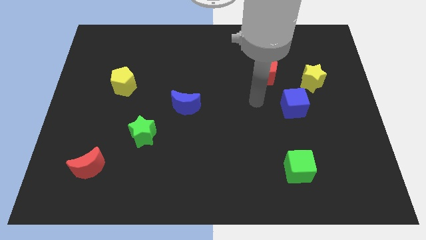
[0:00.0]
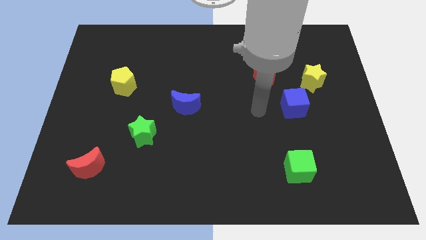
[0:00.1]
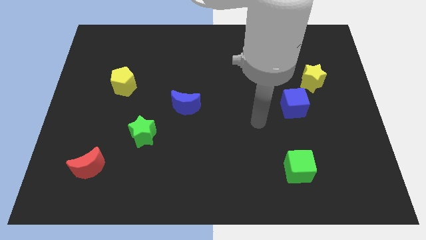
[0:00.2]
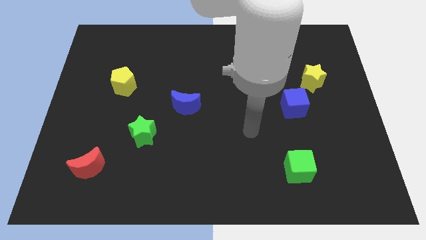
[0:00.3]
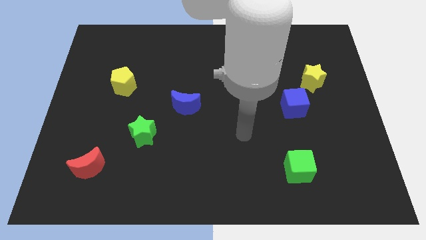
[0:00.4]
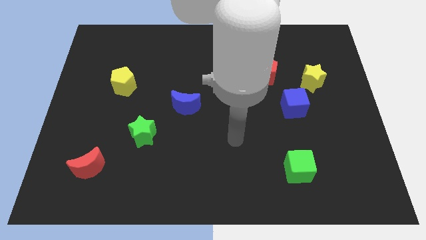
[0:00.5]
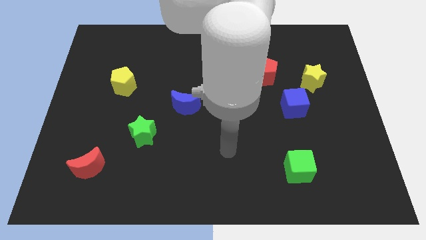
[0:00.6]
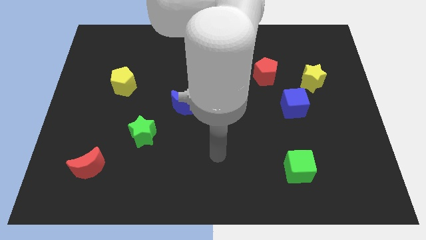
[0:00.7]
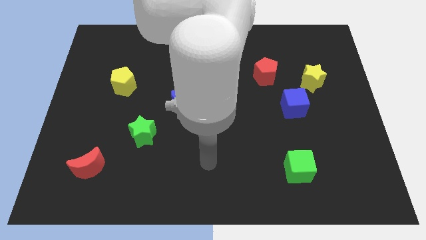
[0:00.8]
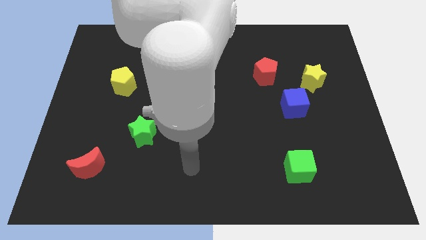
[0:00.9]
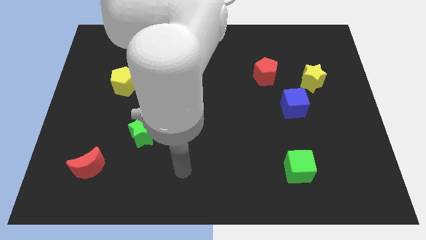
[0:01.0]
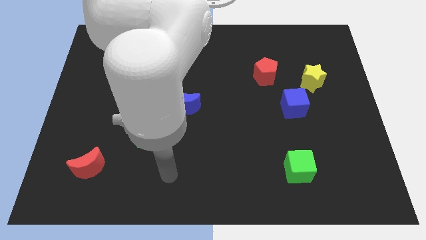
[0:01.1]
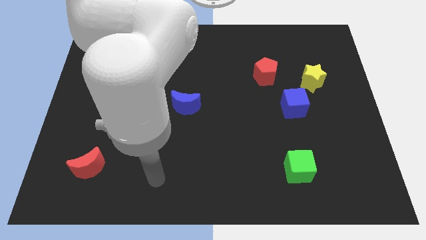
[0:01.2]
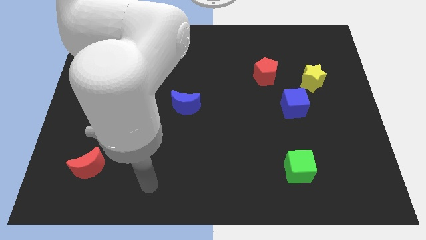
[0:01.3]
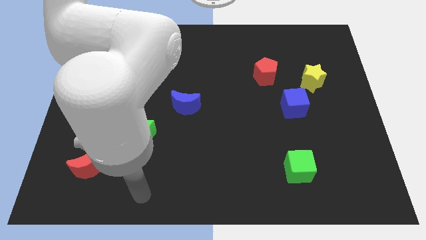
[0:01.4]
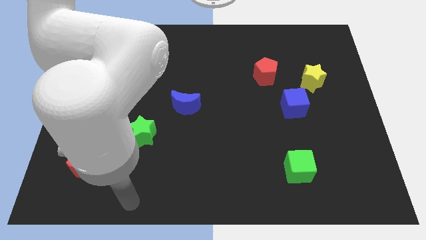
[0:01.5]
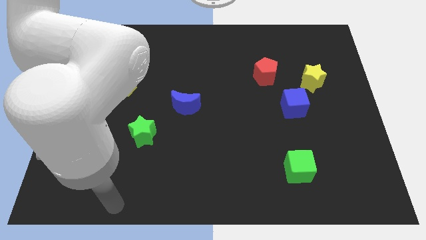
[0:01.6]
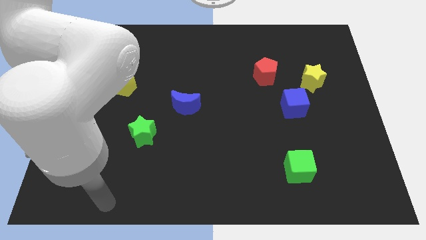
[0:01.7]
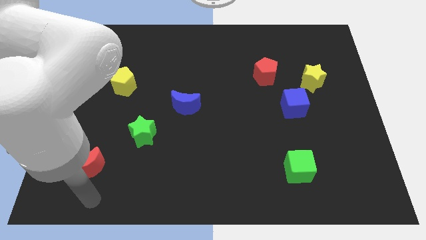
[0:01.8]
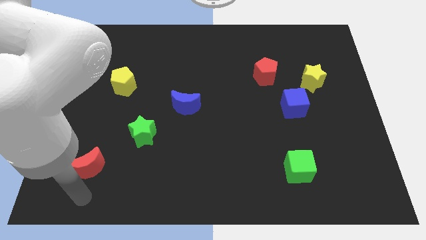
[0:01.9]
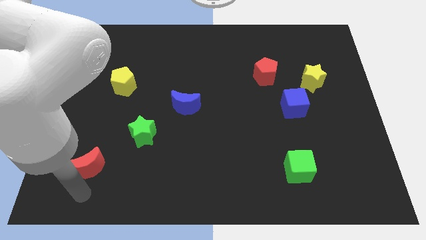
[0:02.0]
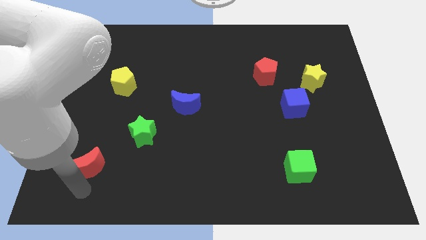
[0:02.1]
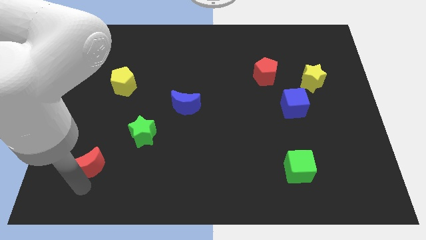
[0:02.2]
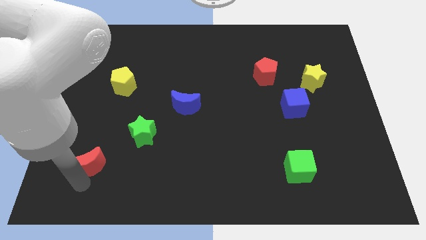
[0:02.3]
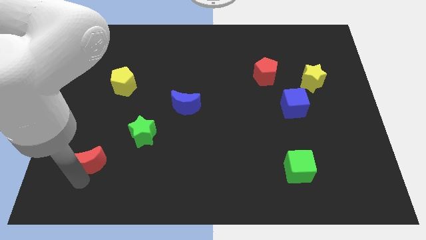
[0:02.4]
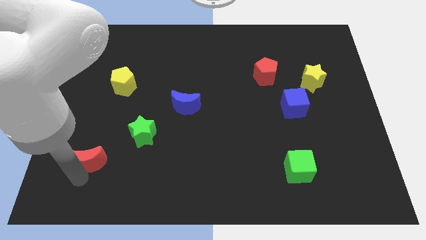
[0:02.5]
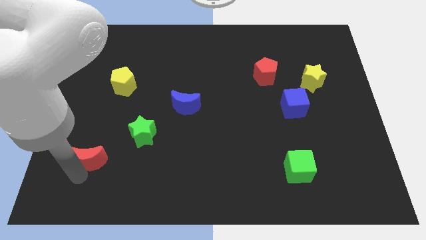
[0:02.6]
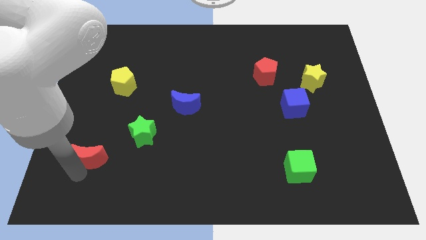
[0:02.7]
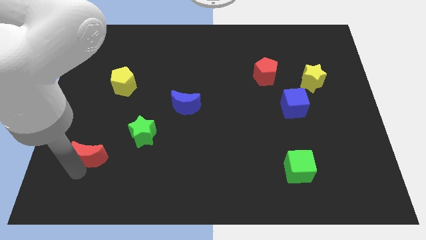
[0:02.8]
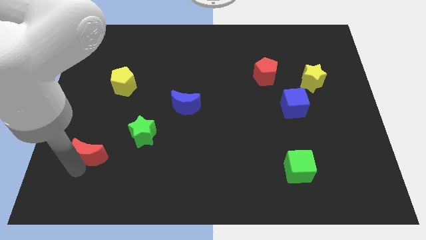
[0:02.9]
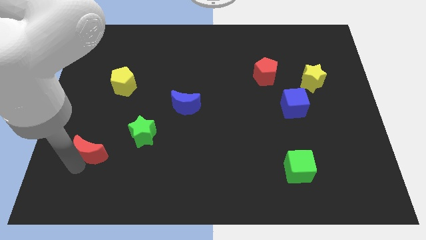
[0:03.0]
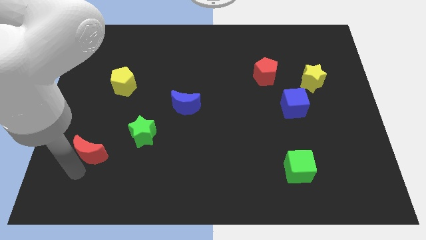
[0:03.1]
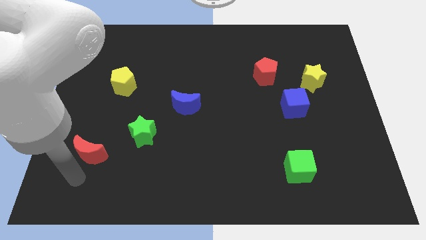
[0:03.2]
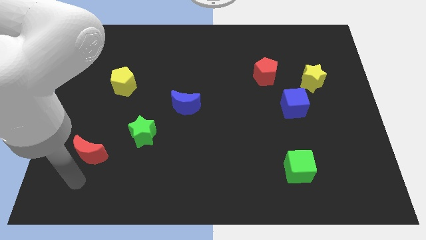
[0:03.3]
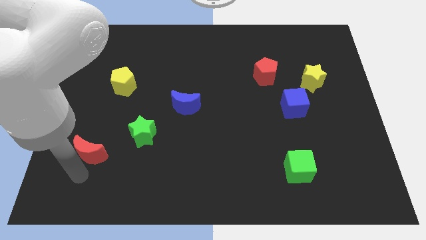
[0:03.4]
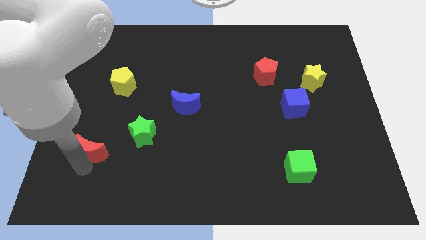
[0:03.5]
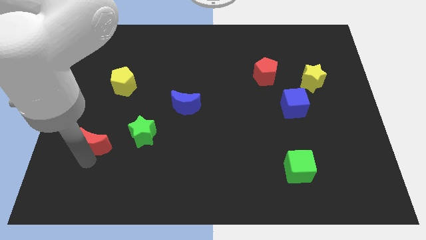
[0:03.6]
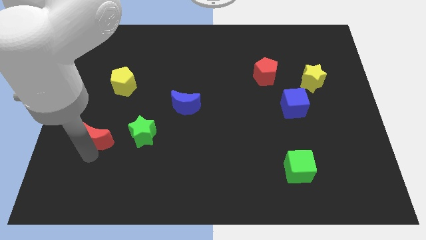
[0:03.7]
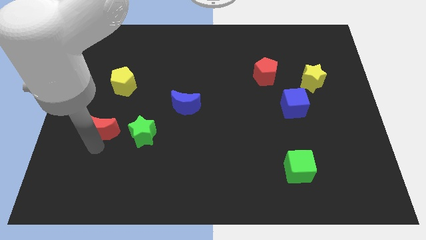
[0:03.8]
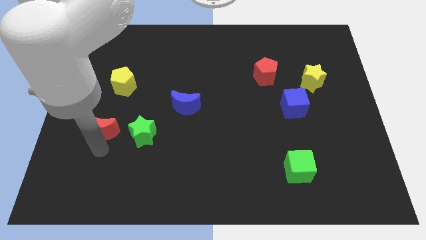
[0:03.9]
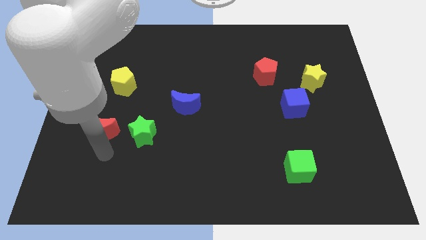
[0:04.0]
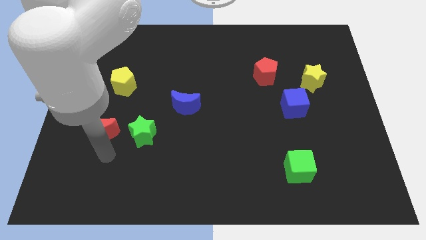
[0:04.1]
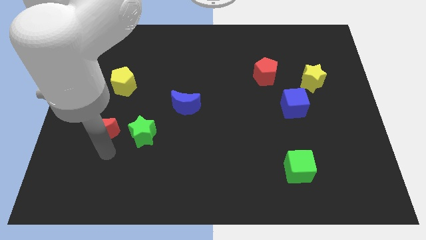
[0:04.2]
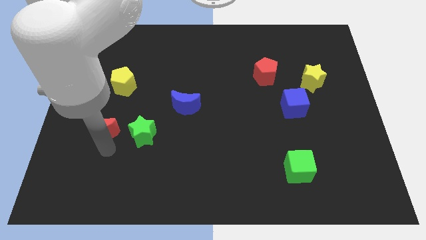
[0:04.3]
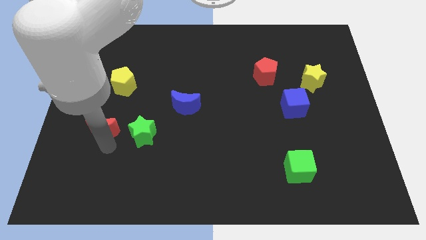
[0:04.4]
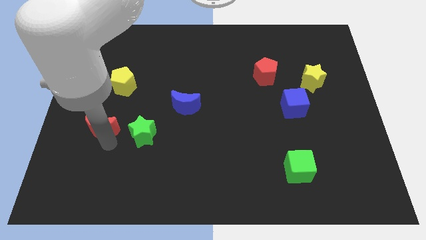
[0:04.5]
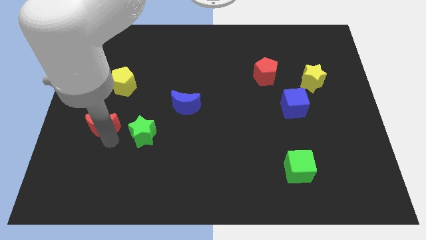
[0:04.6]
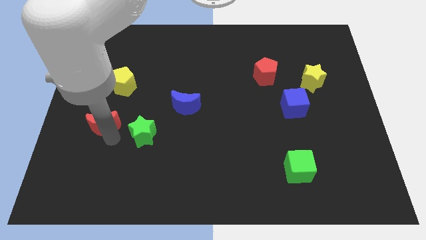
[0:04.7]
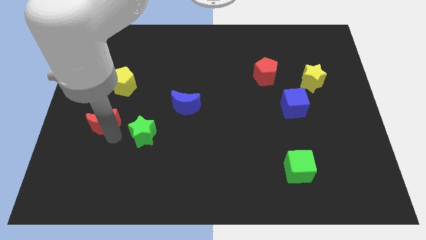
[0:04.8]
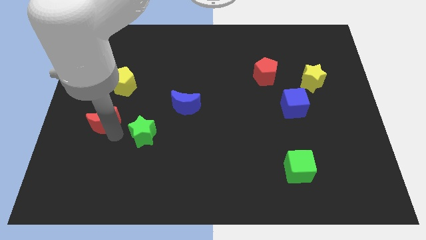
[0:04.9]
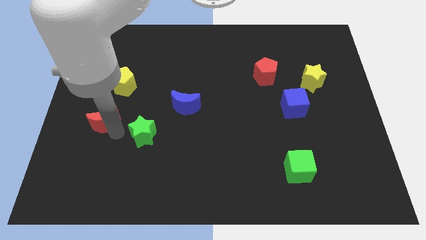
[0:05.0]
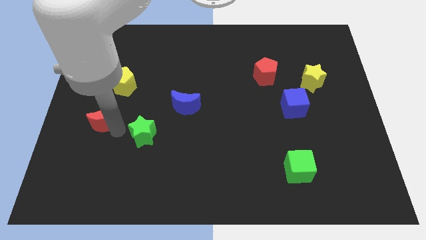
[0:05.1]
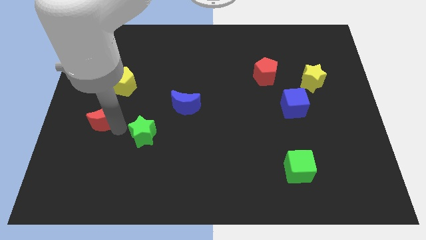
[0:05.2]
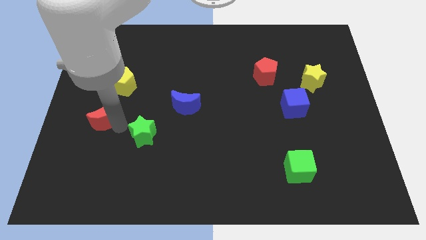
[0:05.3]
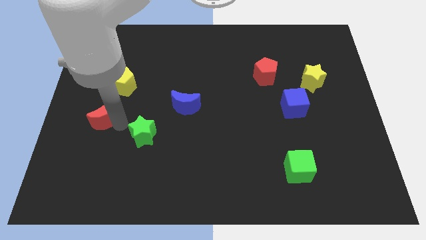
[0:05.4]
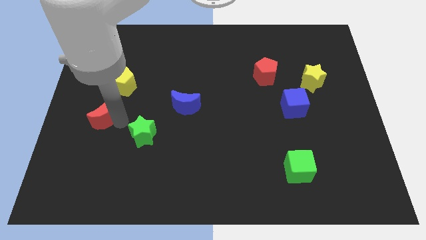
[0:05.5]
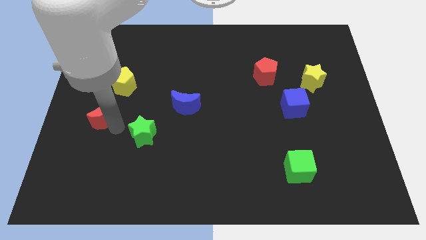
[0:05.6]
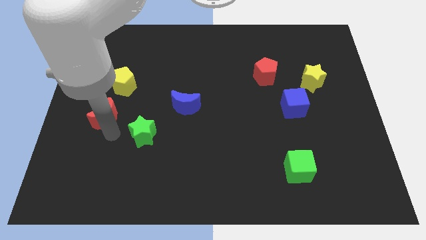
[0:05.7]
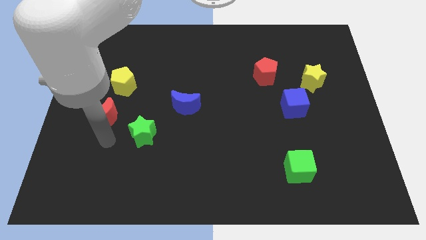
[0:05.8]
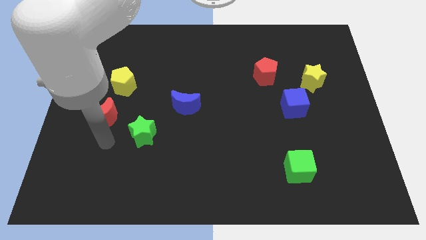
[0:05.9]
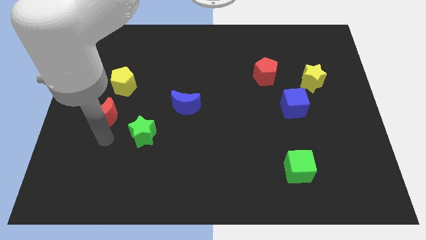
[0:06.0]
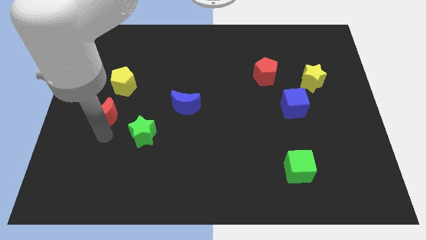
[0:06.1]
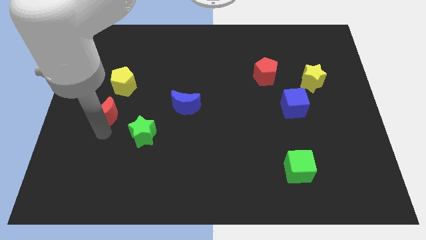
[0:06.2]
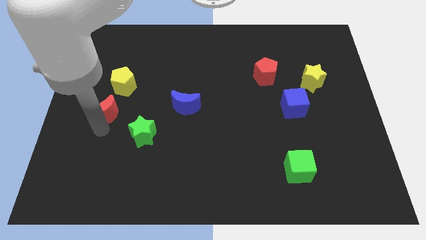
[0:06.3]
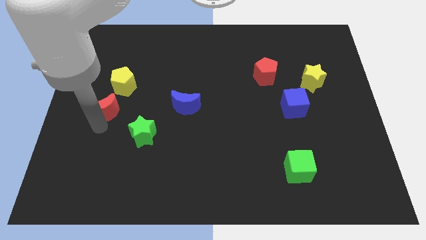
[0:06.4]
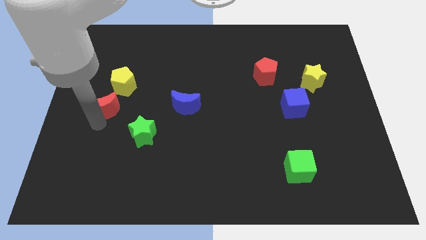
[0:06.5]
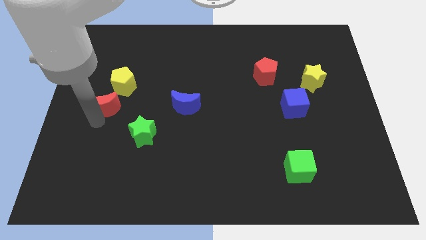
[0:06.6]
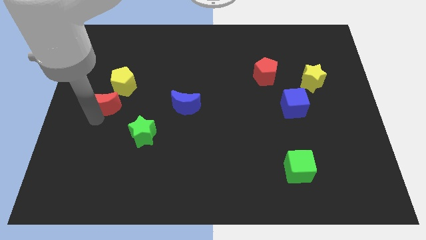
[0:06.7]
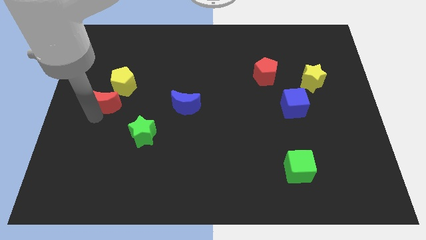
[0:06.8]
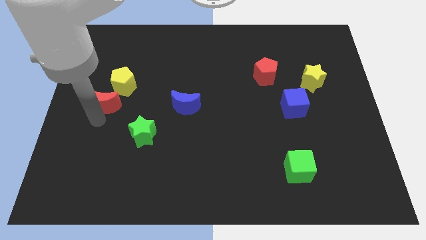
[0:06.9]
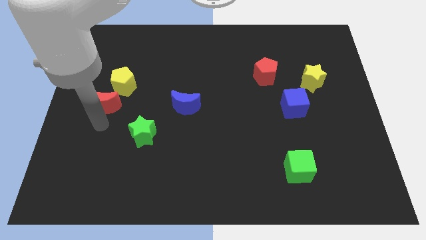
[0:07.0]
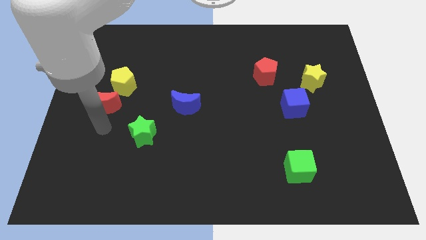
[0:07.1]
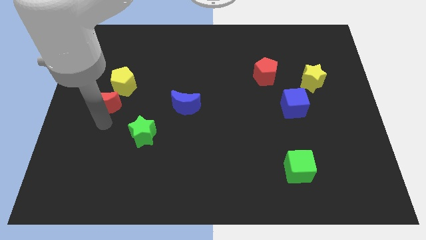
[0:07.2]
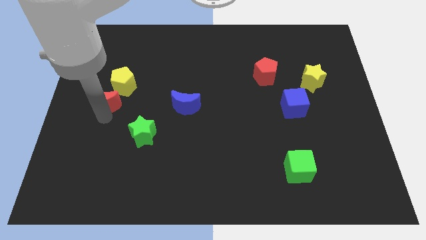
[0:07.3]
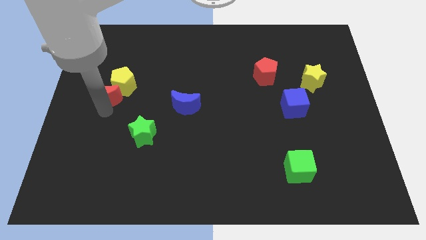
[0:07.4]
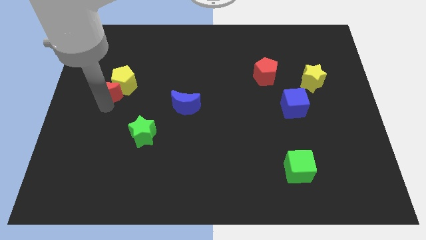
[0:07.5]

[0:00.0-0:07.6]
slide the red moon upwards

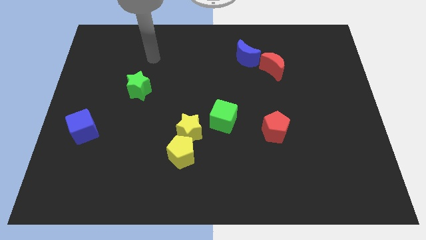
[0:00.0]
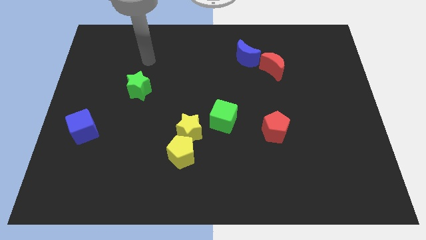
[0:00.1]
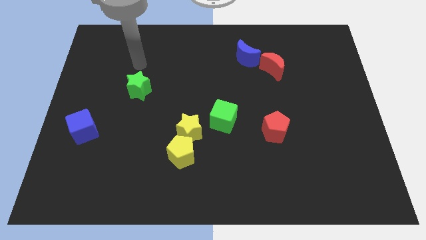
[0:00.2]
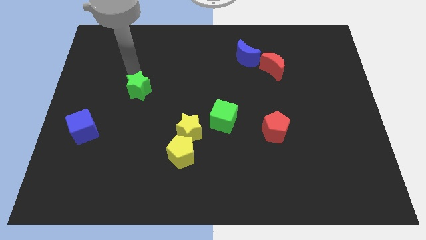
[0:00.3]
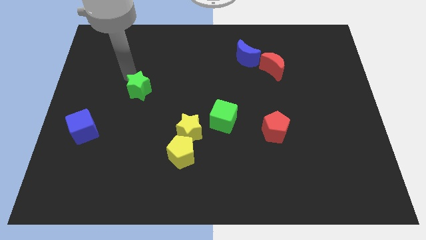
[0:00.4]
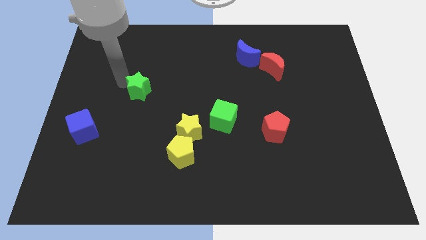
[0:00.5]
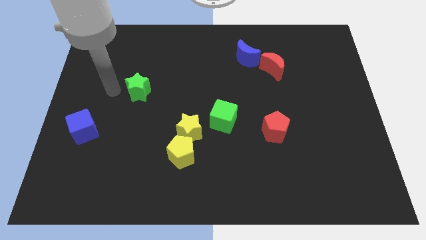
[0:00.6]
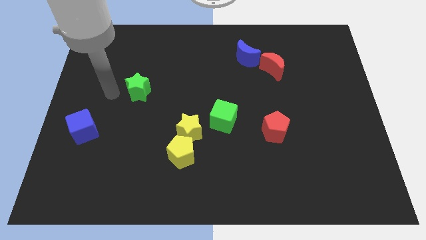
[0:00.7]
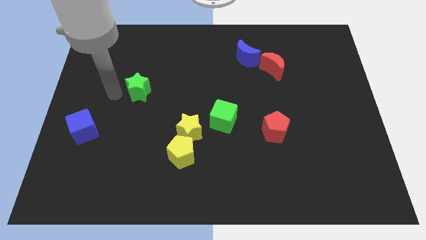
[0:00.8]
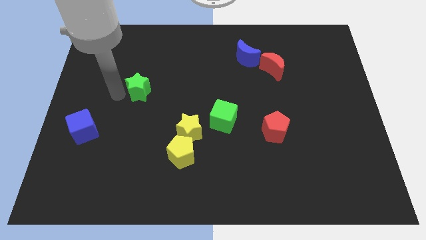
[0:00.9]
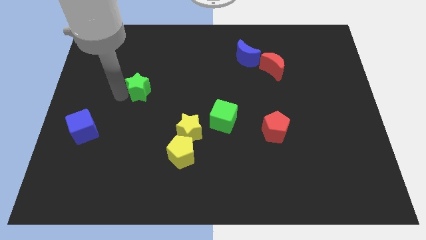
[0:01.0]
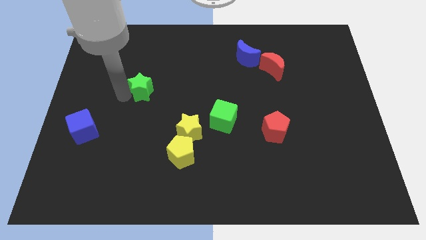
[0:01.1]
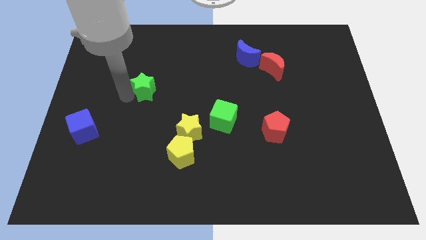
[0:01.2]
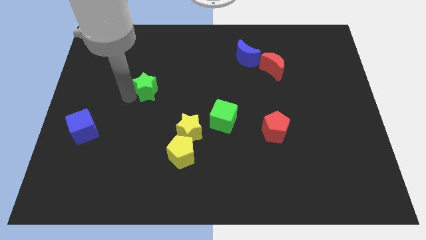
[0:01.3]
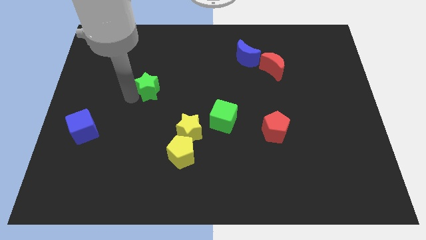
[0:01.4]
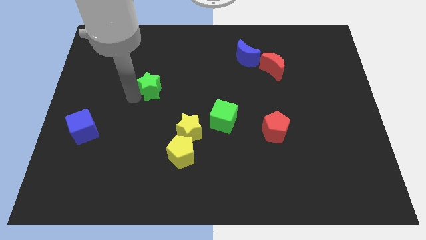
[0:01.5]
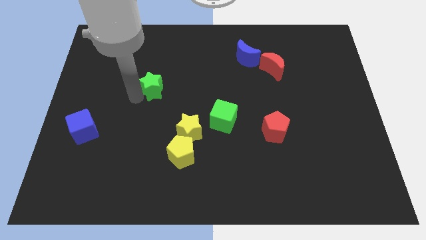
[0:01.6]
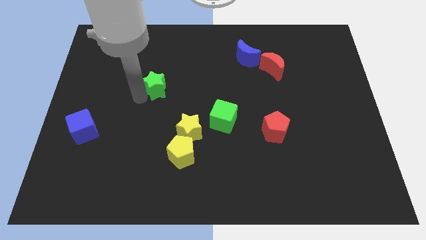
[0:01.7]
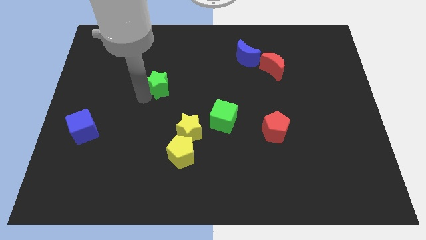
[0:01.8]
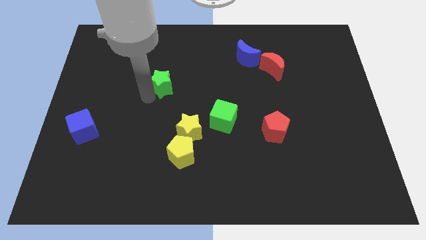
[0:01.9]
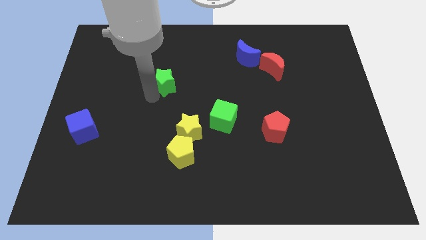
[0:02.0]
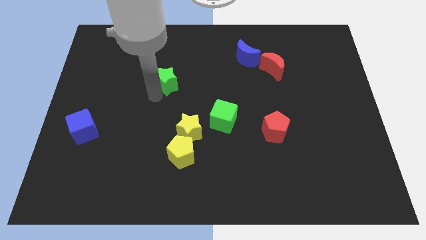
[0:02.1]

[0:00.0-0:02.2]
push the green star to the right a little bit
